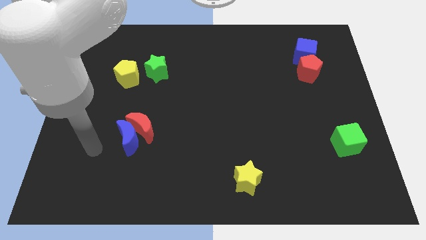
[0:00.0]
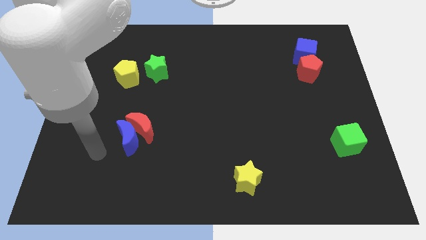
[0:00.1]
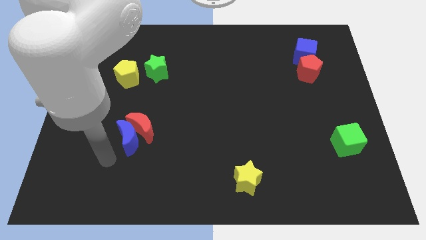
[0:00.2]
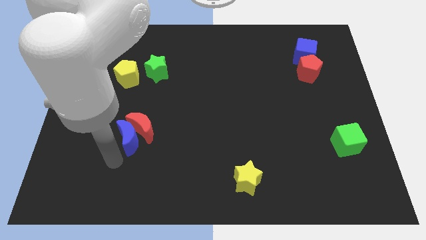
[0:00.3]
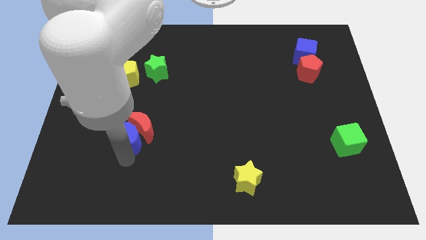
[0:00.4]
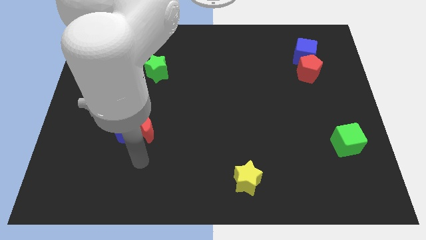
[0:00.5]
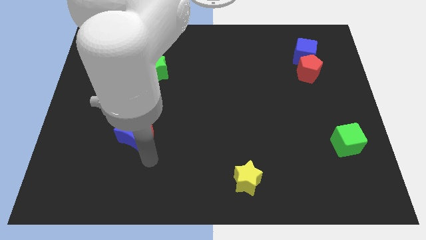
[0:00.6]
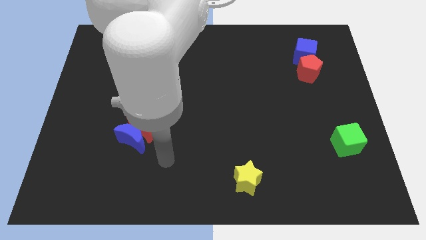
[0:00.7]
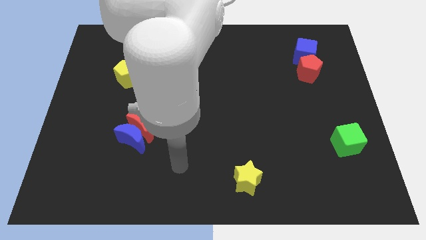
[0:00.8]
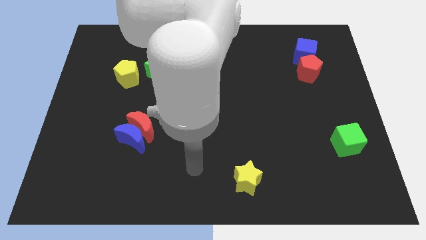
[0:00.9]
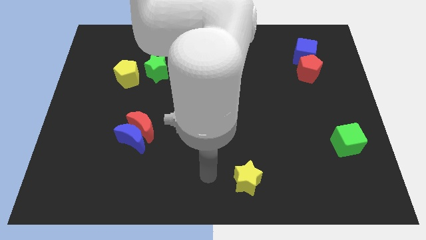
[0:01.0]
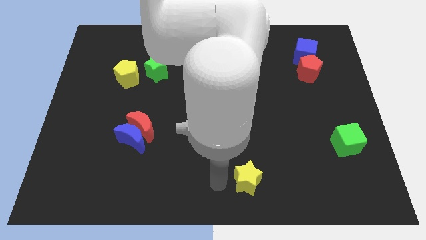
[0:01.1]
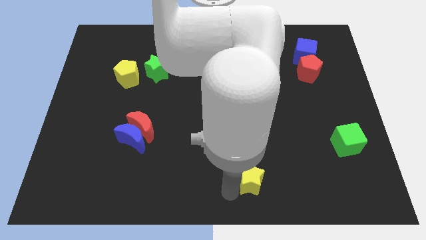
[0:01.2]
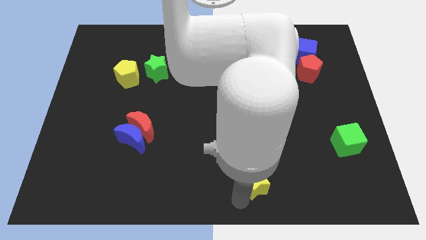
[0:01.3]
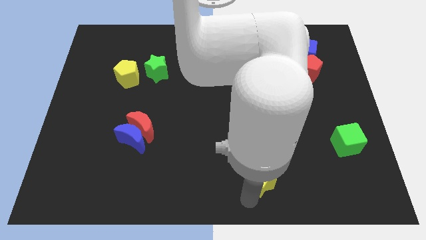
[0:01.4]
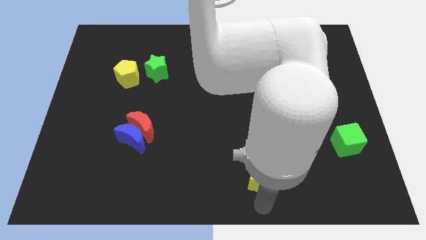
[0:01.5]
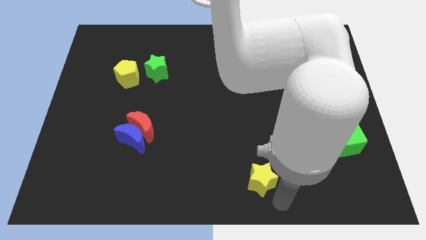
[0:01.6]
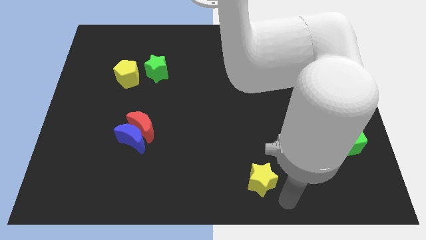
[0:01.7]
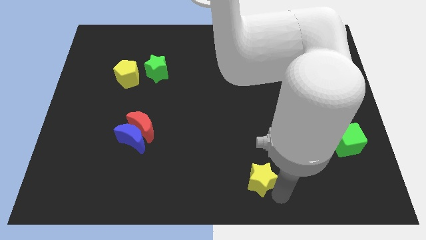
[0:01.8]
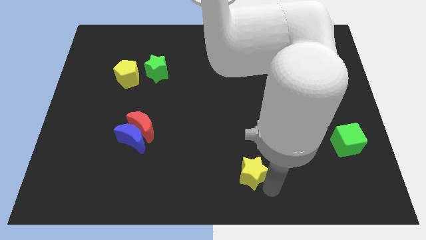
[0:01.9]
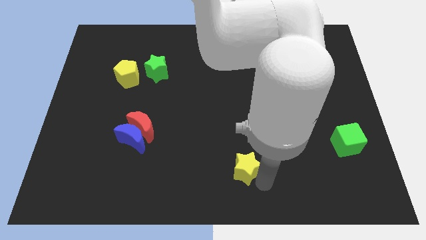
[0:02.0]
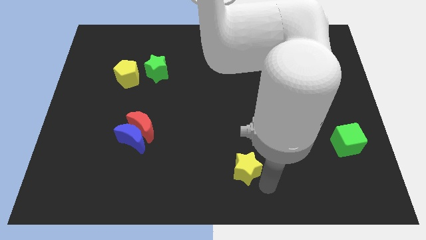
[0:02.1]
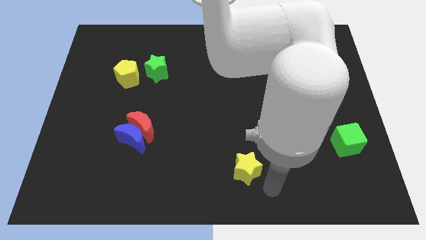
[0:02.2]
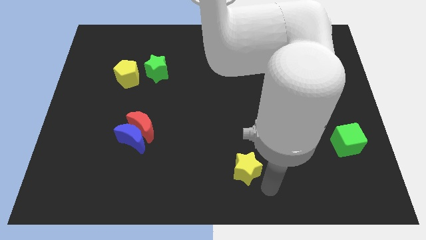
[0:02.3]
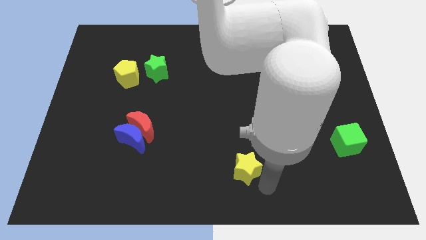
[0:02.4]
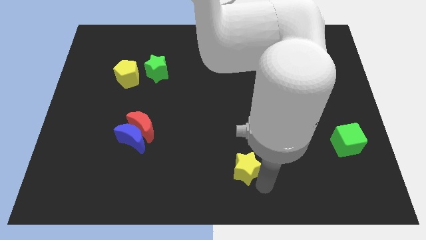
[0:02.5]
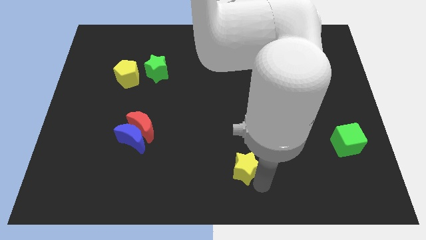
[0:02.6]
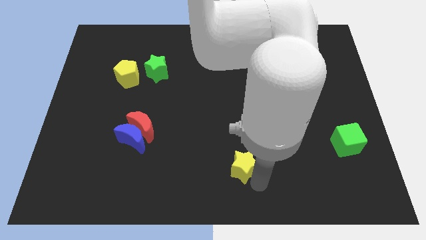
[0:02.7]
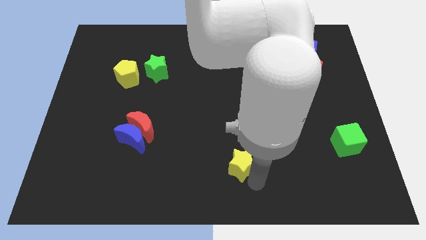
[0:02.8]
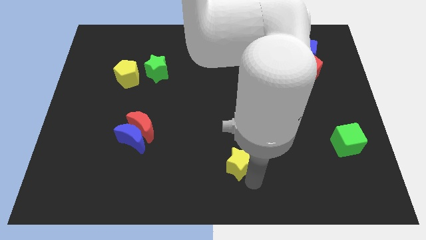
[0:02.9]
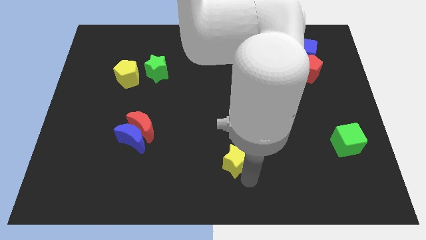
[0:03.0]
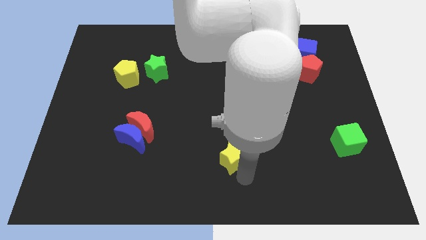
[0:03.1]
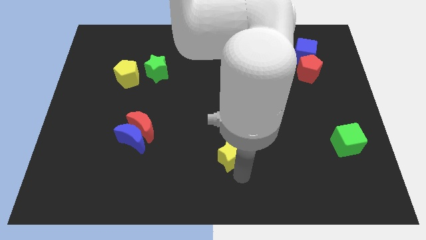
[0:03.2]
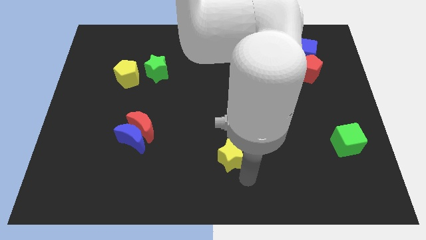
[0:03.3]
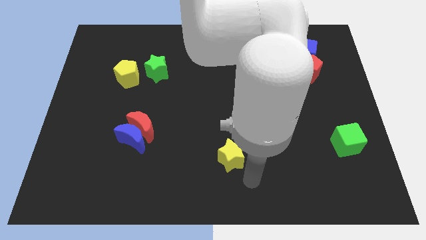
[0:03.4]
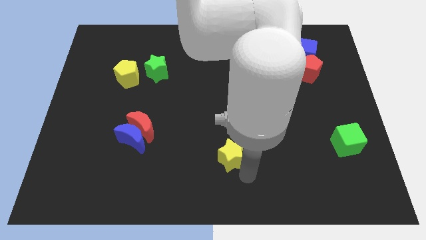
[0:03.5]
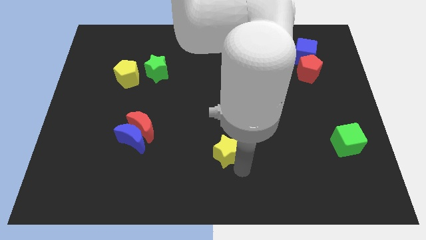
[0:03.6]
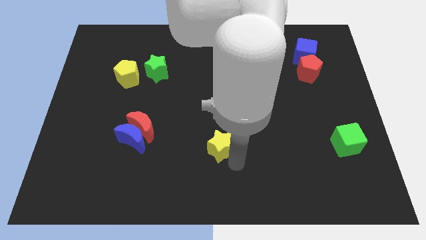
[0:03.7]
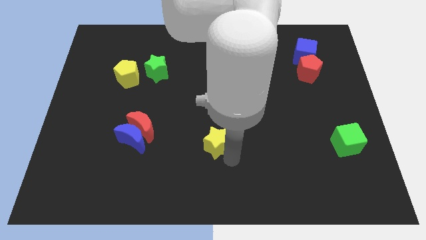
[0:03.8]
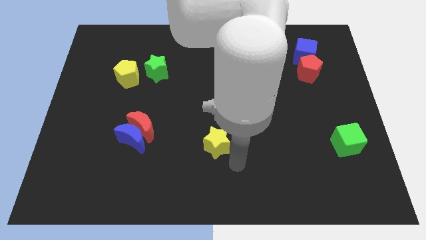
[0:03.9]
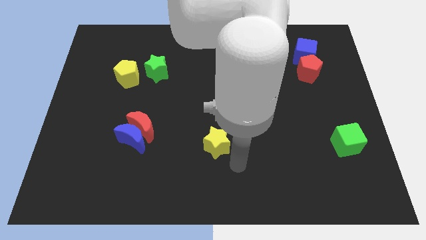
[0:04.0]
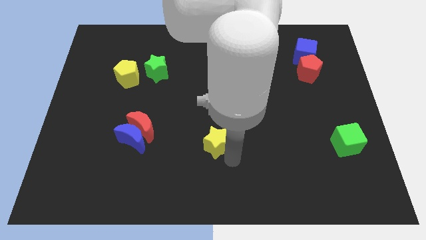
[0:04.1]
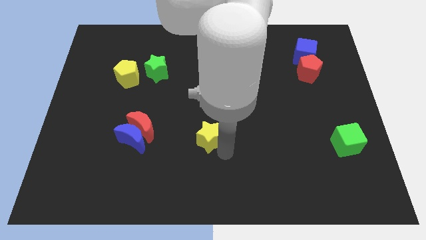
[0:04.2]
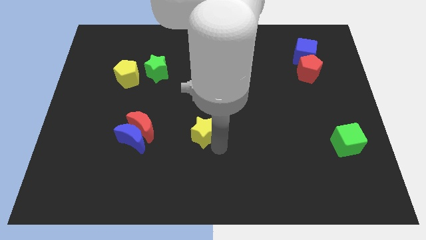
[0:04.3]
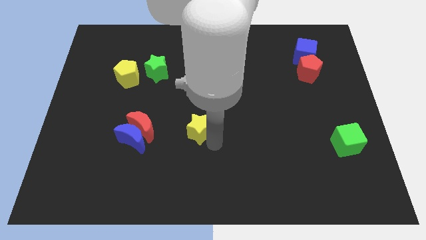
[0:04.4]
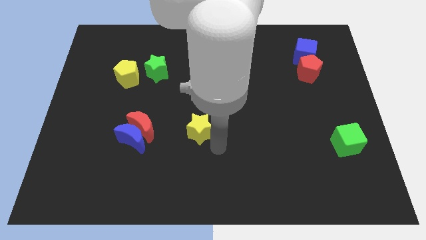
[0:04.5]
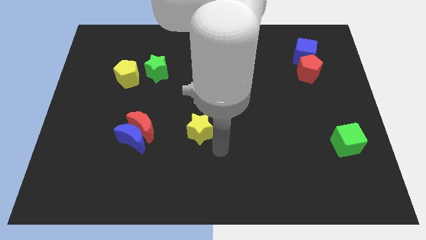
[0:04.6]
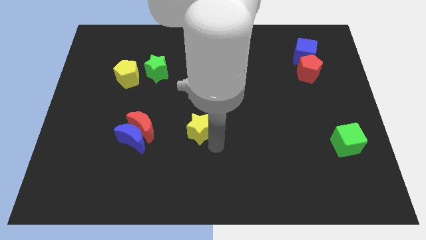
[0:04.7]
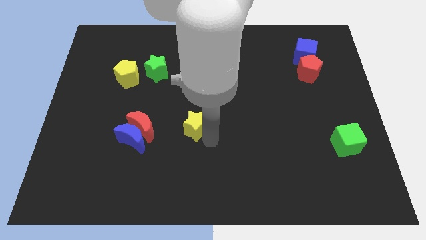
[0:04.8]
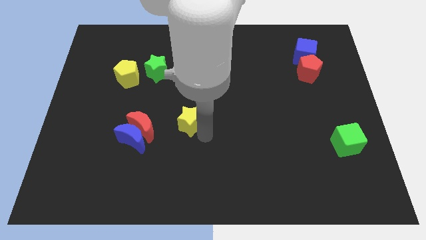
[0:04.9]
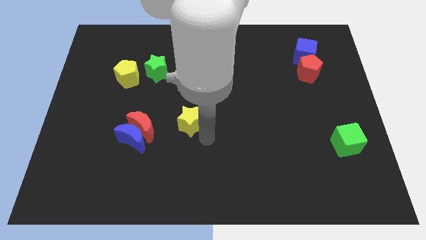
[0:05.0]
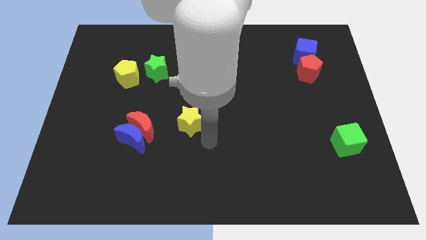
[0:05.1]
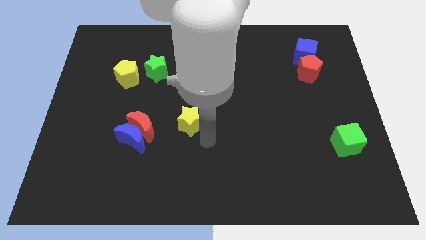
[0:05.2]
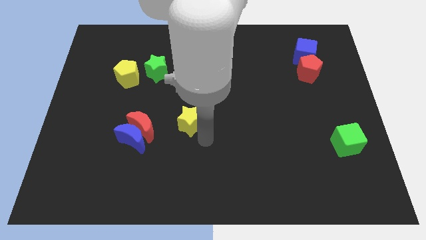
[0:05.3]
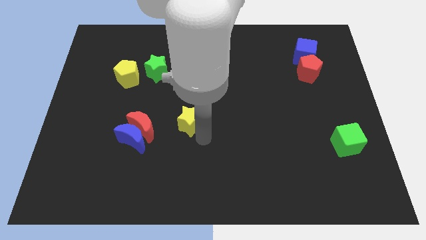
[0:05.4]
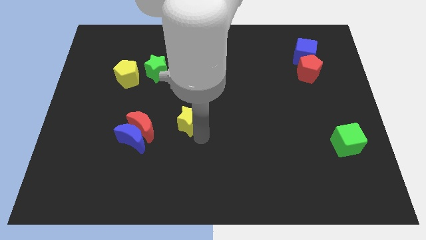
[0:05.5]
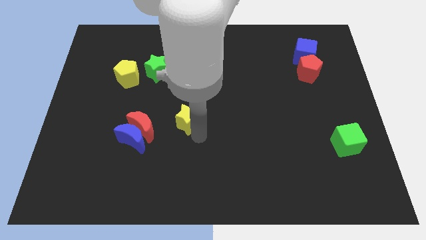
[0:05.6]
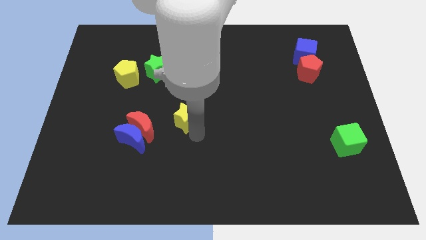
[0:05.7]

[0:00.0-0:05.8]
slide the yellow star upwards and left diagonally

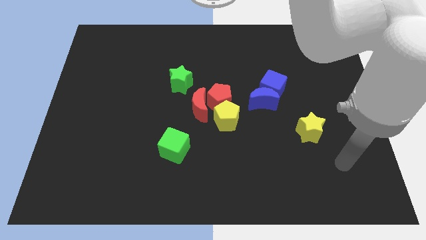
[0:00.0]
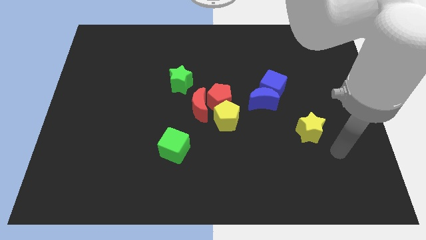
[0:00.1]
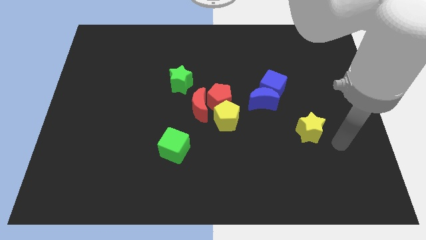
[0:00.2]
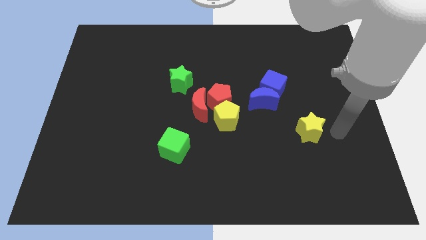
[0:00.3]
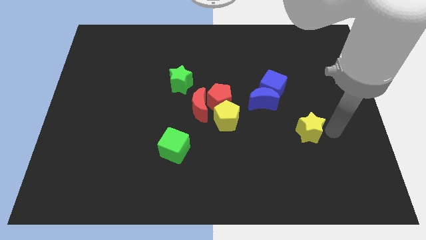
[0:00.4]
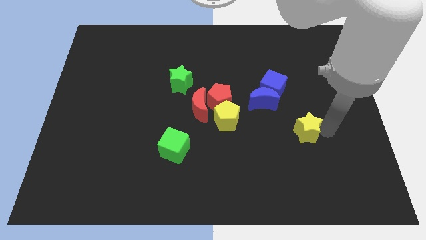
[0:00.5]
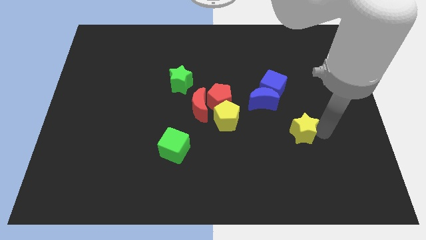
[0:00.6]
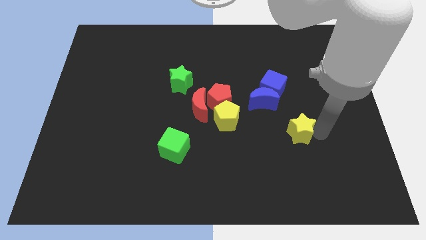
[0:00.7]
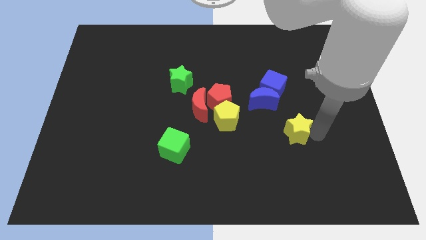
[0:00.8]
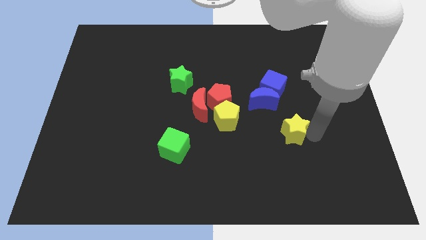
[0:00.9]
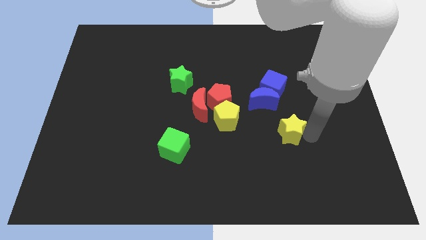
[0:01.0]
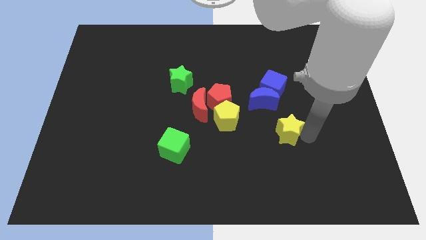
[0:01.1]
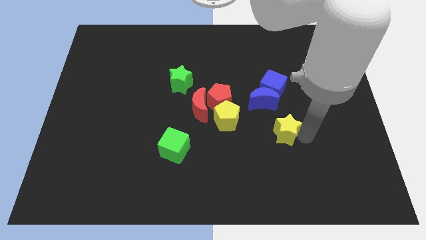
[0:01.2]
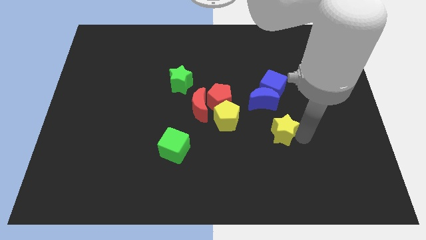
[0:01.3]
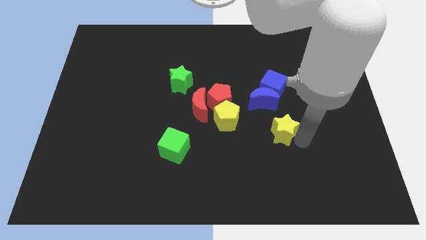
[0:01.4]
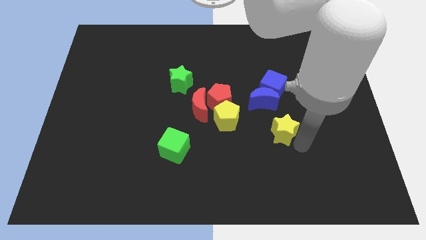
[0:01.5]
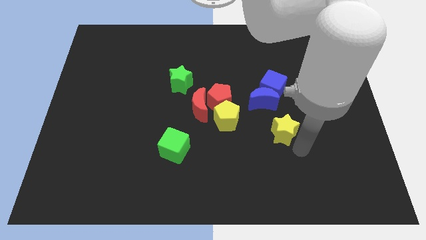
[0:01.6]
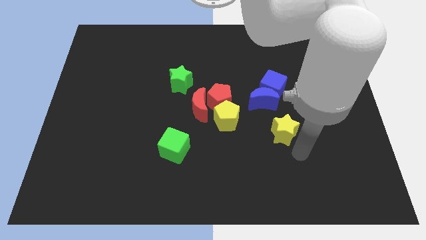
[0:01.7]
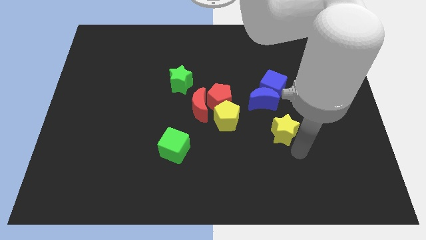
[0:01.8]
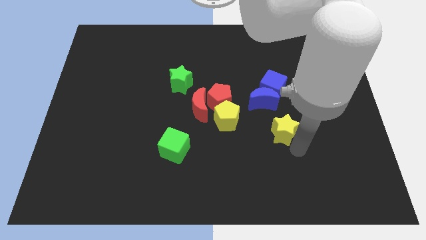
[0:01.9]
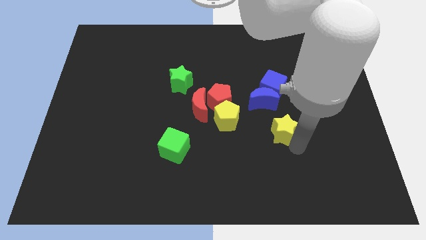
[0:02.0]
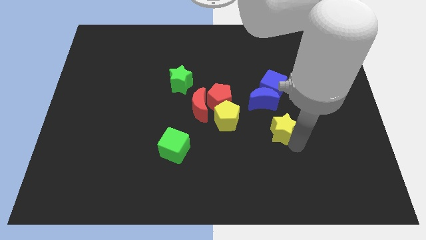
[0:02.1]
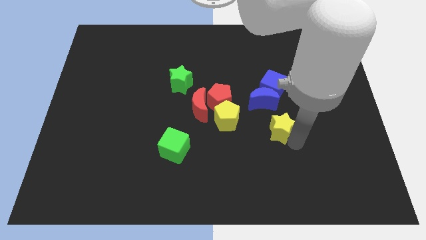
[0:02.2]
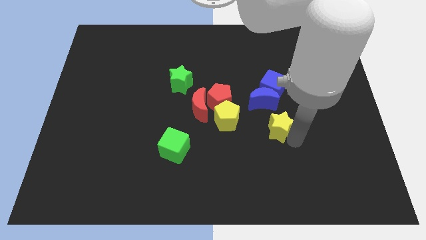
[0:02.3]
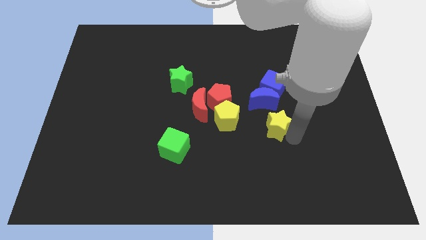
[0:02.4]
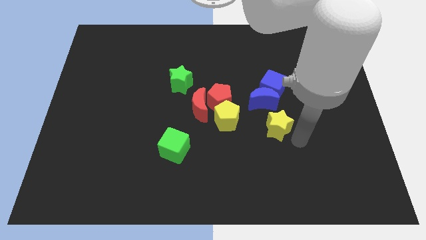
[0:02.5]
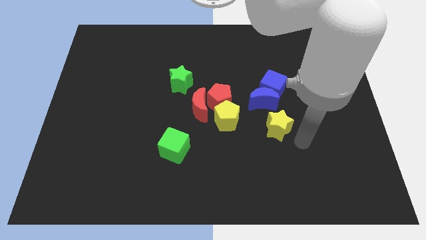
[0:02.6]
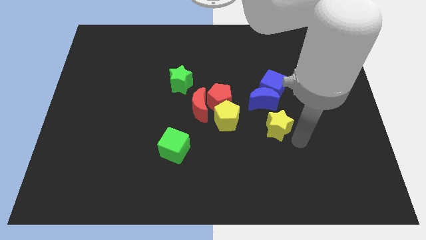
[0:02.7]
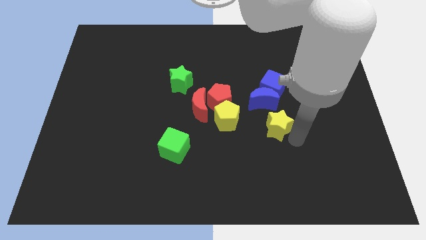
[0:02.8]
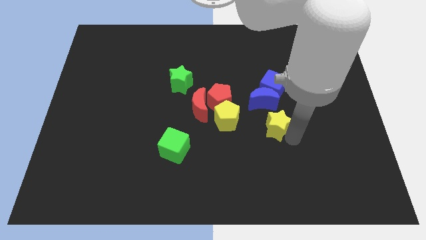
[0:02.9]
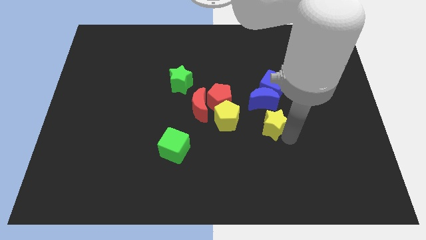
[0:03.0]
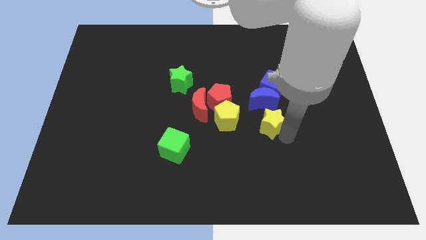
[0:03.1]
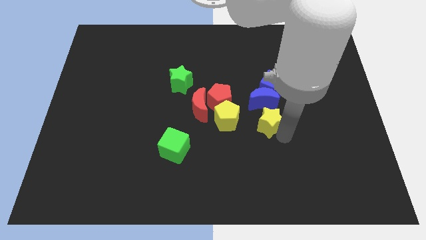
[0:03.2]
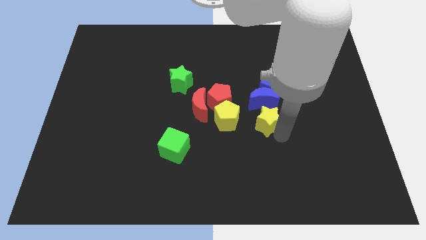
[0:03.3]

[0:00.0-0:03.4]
push the yellow star diagonally up and left somewhat
